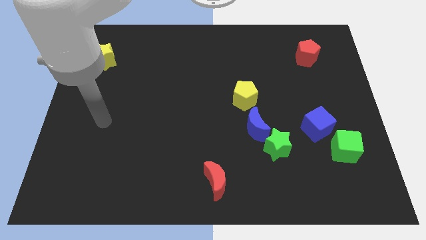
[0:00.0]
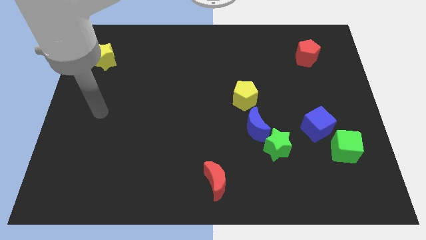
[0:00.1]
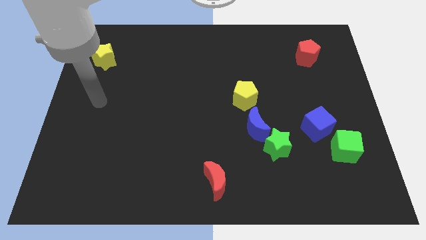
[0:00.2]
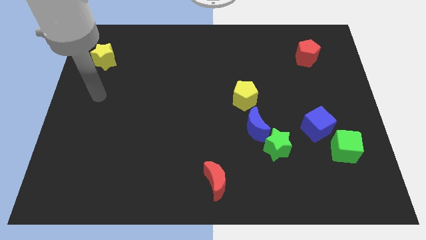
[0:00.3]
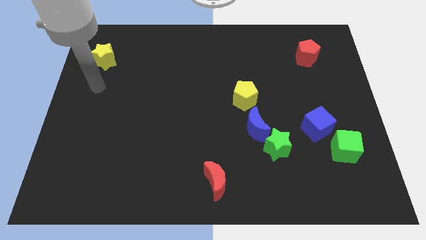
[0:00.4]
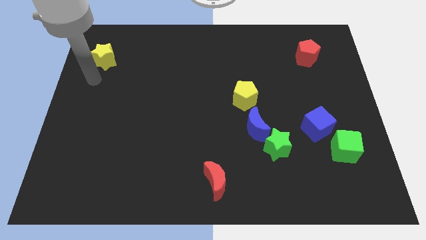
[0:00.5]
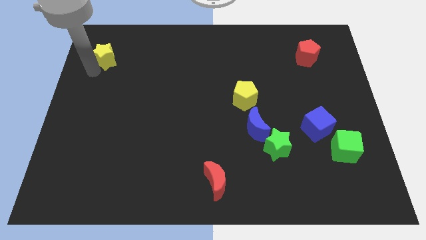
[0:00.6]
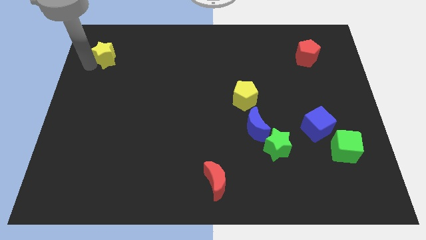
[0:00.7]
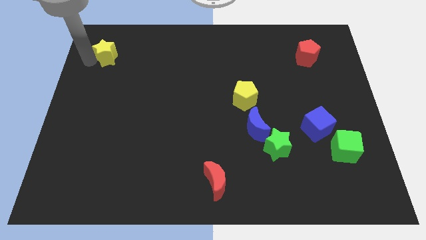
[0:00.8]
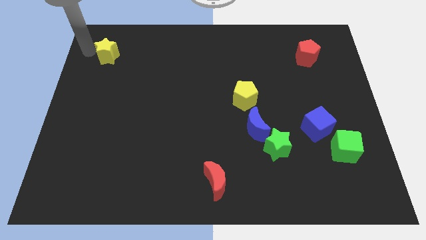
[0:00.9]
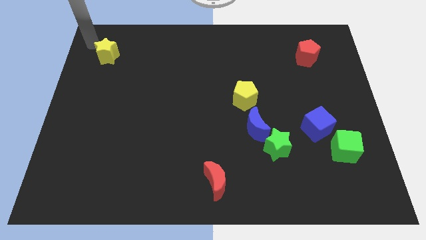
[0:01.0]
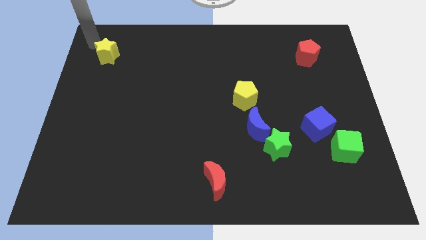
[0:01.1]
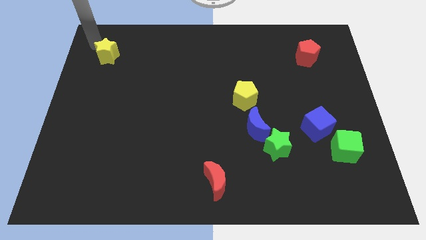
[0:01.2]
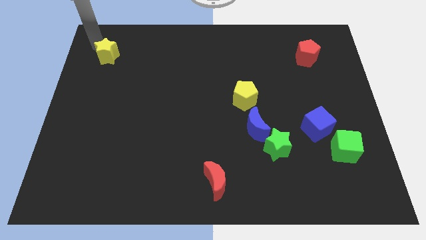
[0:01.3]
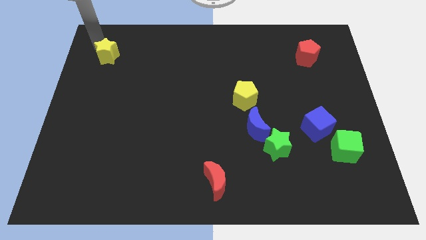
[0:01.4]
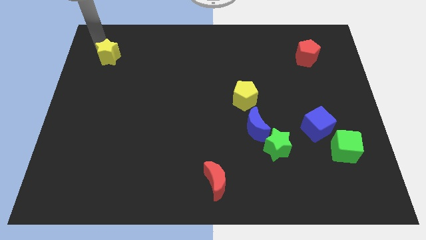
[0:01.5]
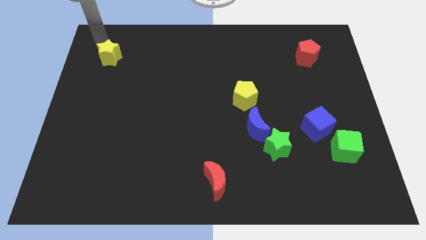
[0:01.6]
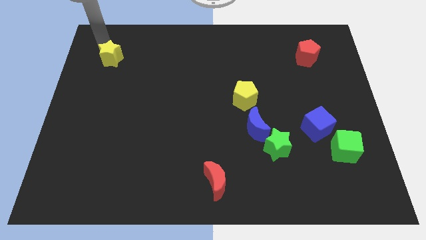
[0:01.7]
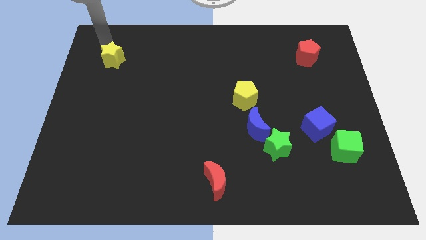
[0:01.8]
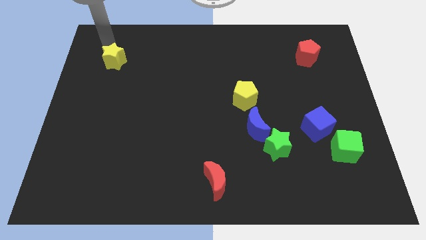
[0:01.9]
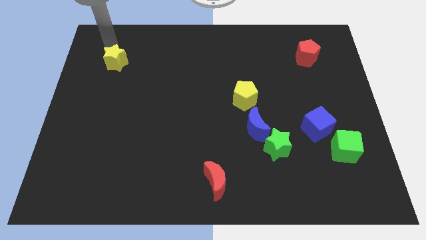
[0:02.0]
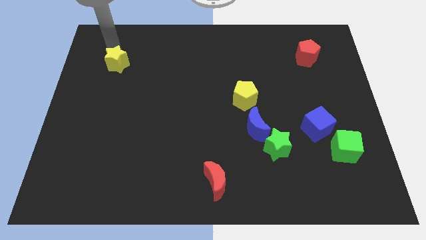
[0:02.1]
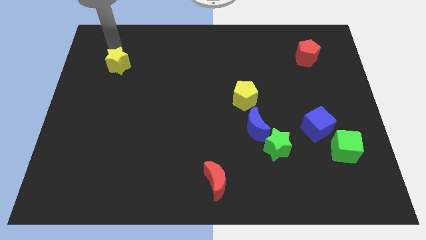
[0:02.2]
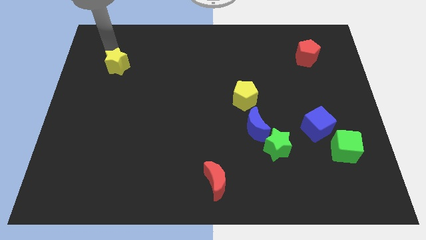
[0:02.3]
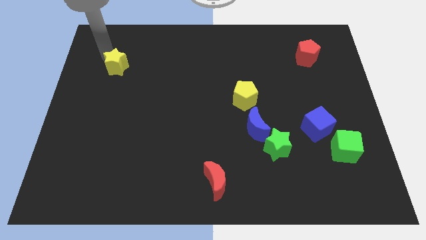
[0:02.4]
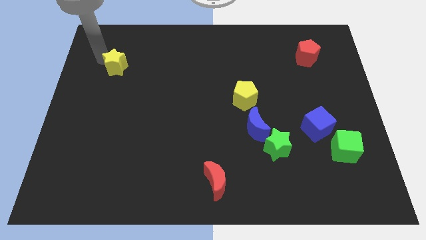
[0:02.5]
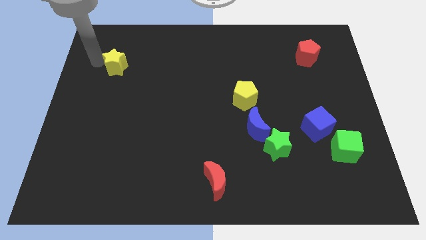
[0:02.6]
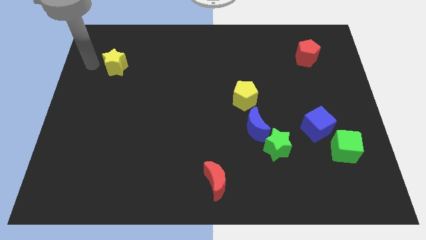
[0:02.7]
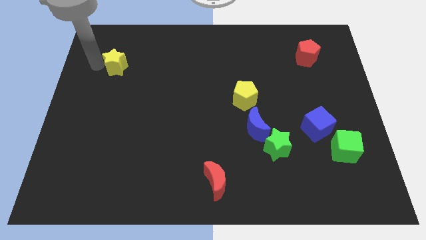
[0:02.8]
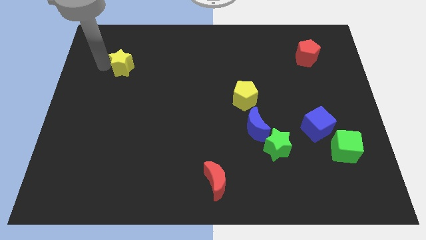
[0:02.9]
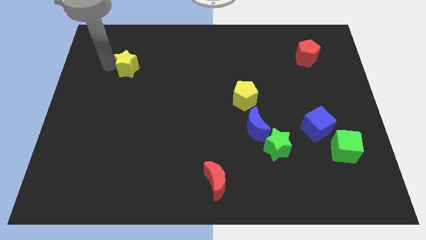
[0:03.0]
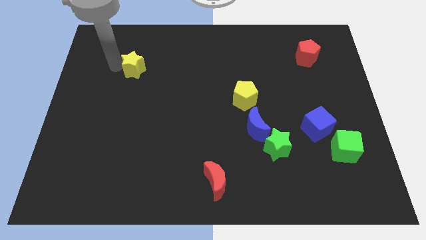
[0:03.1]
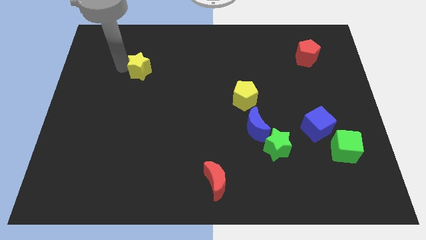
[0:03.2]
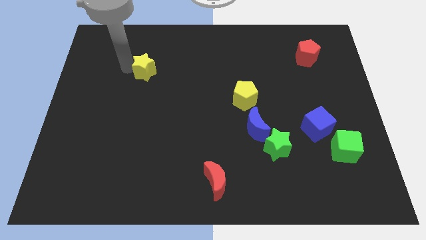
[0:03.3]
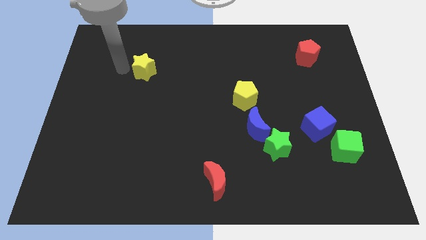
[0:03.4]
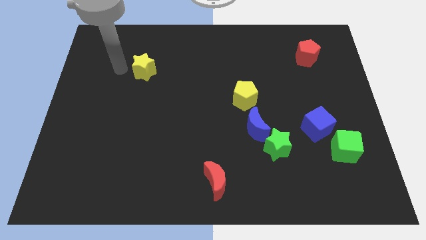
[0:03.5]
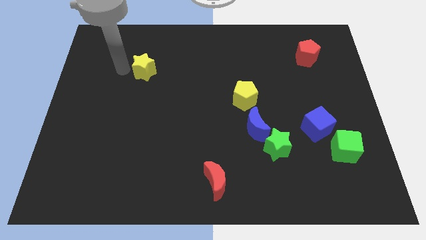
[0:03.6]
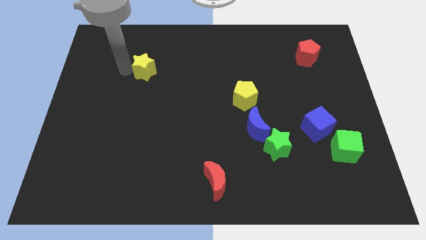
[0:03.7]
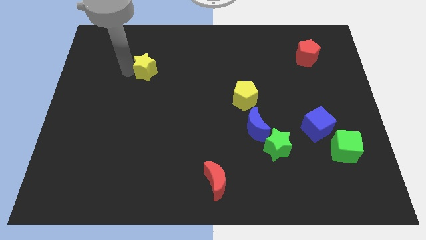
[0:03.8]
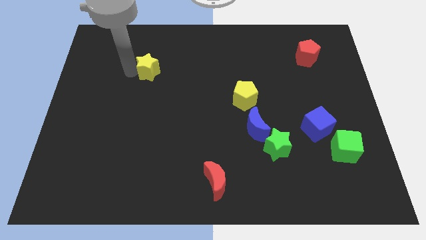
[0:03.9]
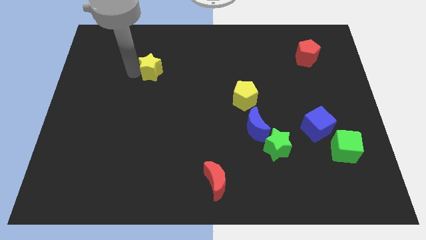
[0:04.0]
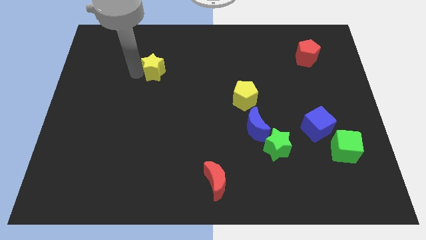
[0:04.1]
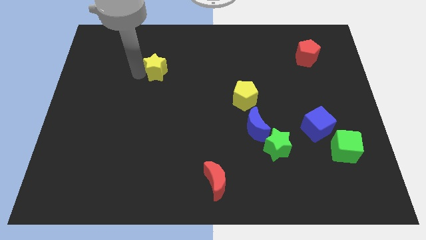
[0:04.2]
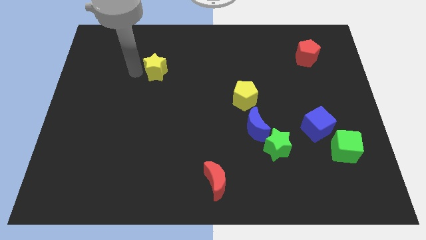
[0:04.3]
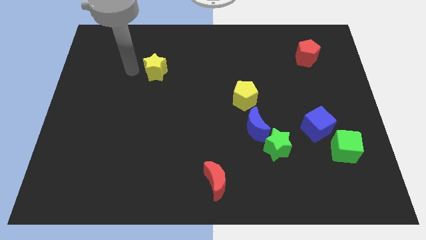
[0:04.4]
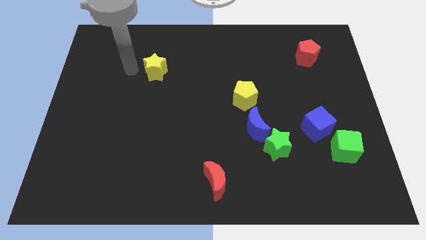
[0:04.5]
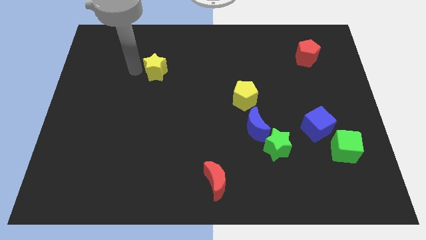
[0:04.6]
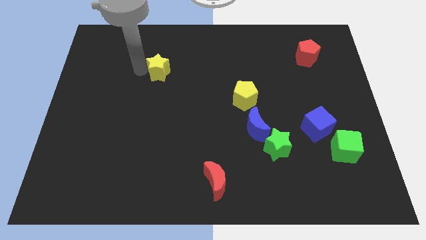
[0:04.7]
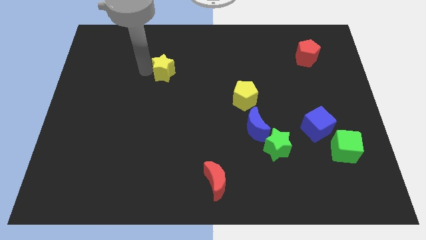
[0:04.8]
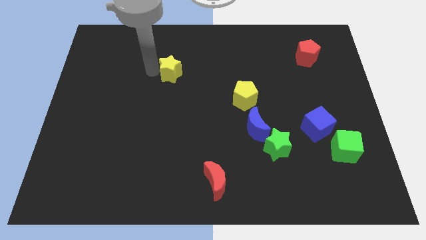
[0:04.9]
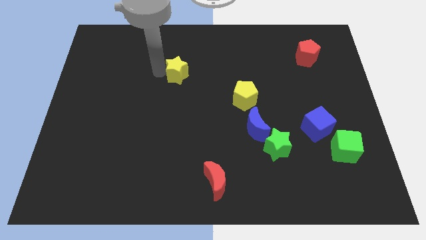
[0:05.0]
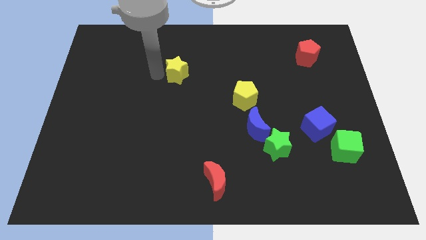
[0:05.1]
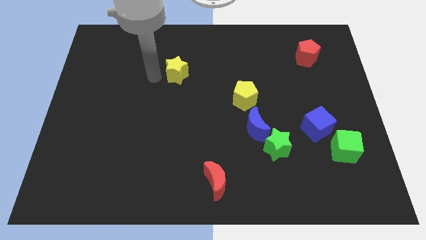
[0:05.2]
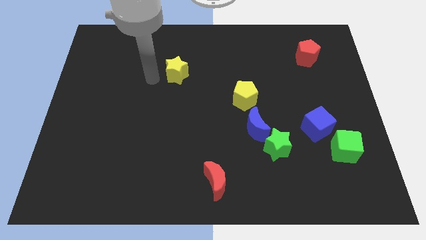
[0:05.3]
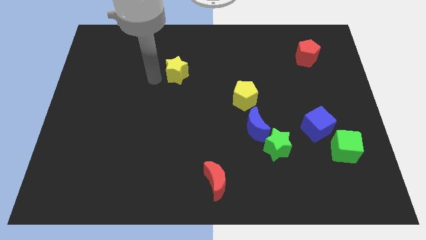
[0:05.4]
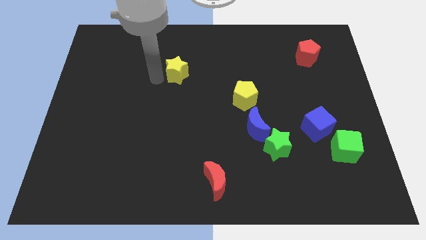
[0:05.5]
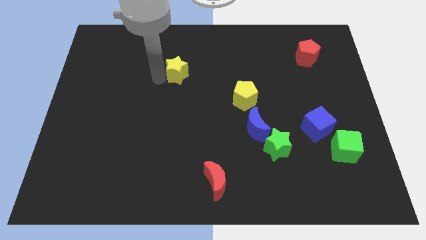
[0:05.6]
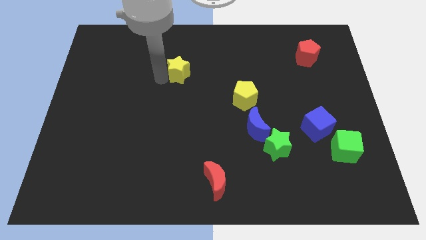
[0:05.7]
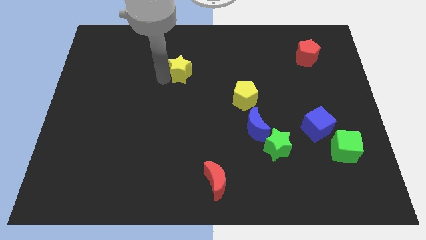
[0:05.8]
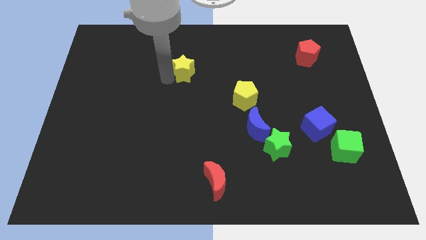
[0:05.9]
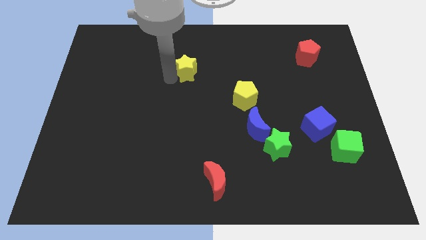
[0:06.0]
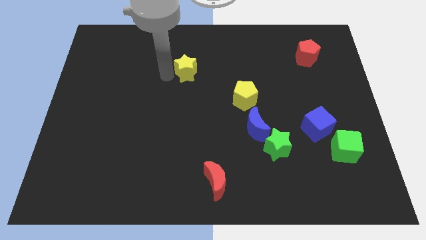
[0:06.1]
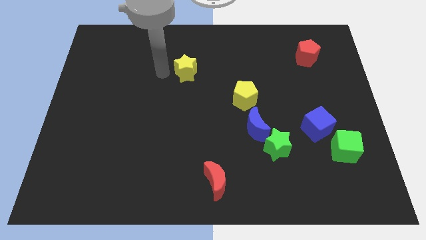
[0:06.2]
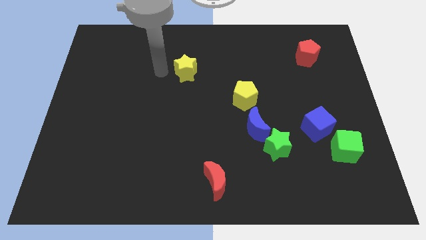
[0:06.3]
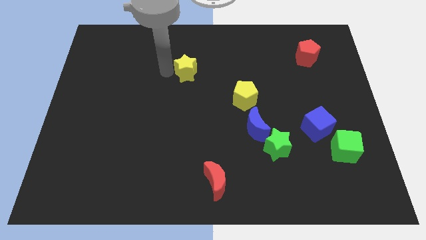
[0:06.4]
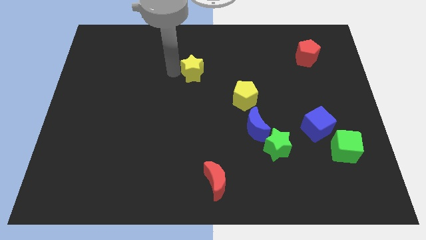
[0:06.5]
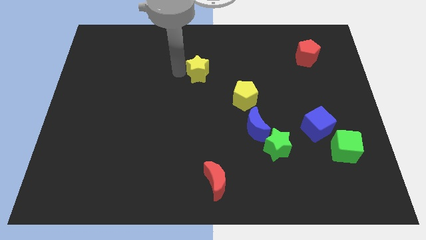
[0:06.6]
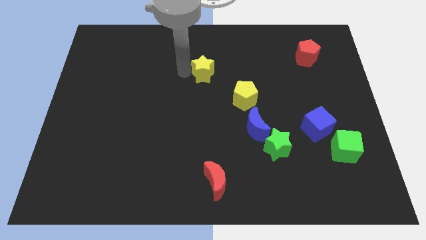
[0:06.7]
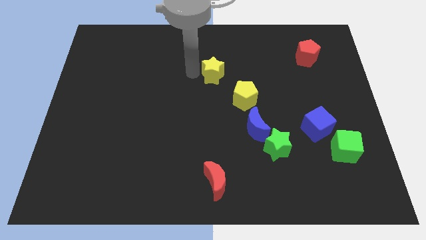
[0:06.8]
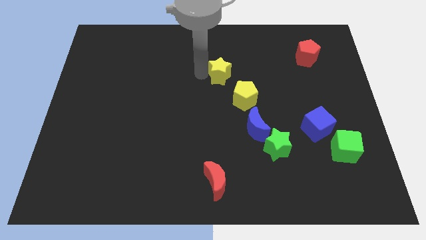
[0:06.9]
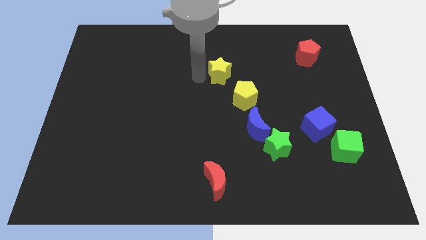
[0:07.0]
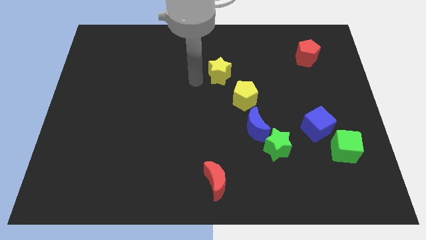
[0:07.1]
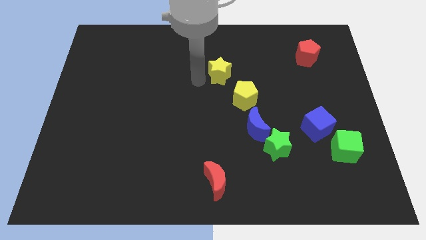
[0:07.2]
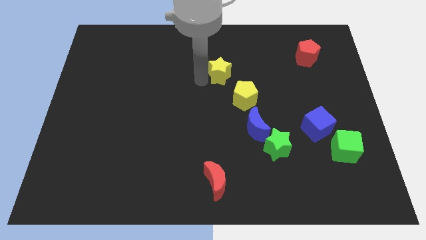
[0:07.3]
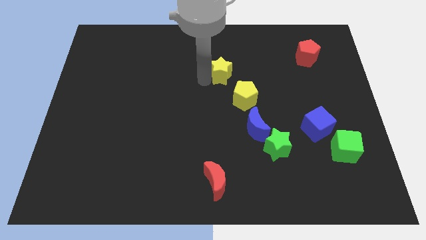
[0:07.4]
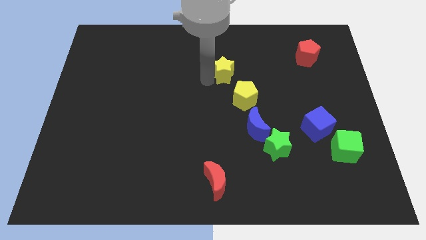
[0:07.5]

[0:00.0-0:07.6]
put the yellow star to the top side of the yellow pentagon
